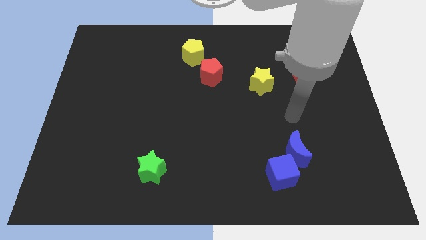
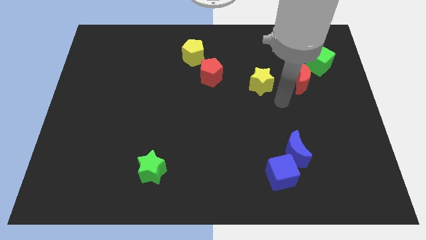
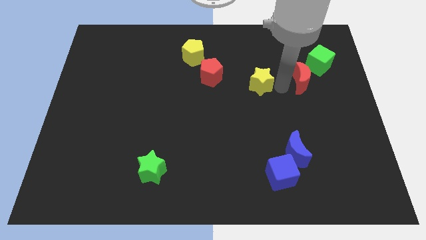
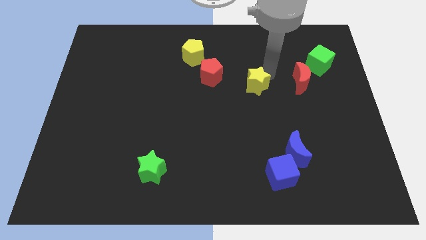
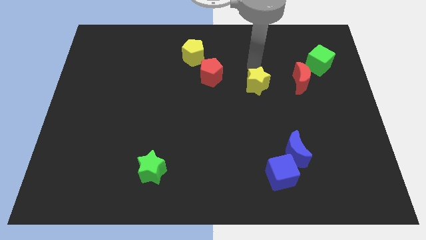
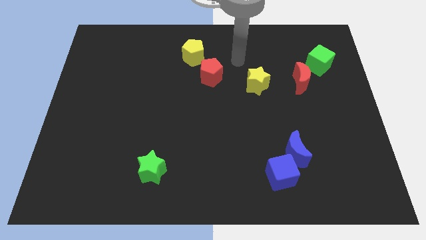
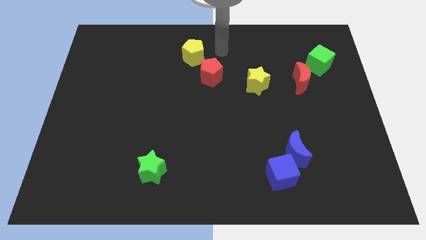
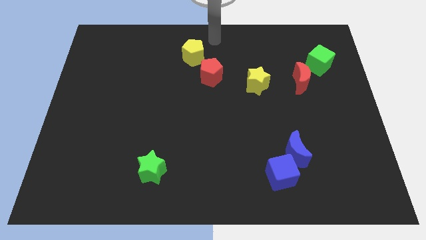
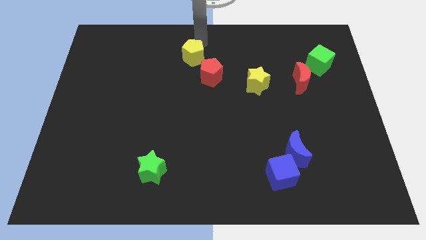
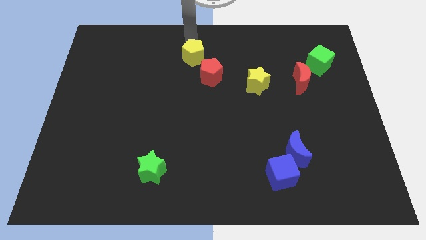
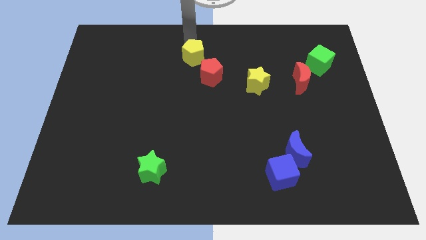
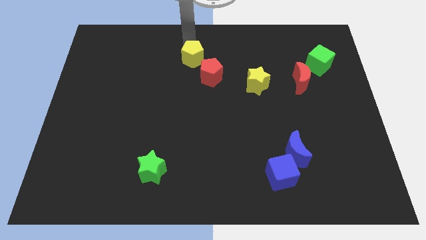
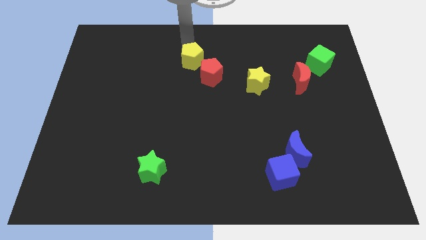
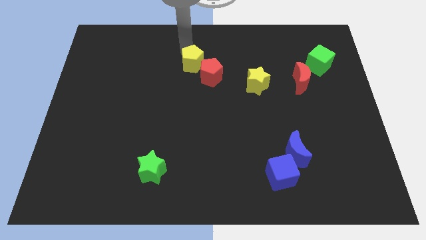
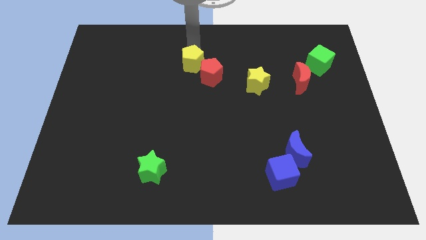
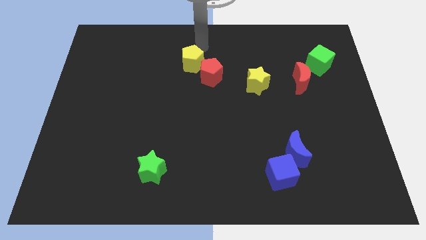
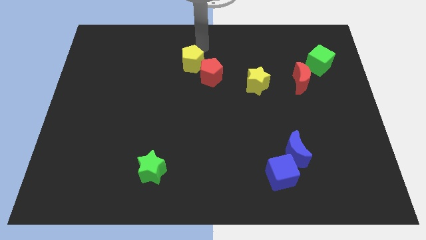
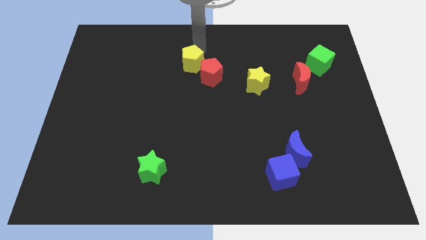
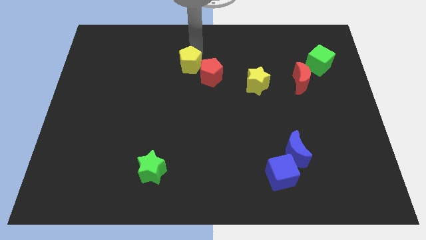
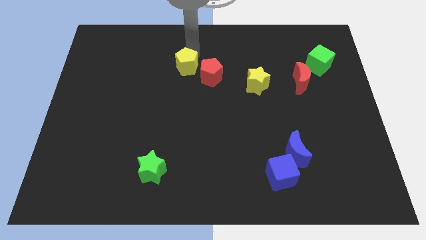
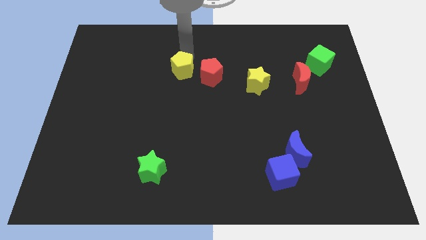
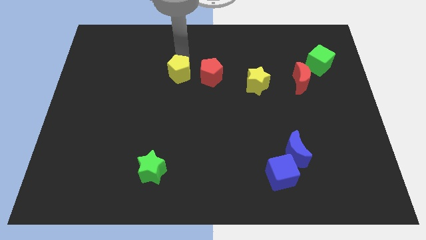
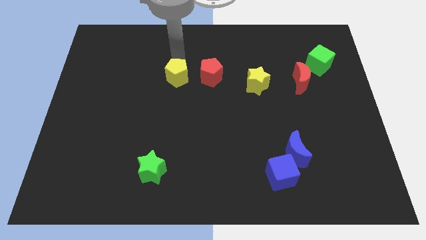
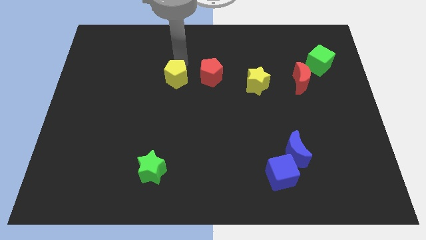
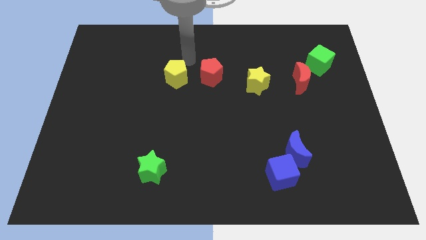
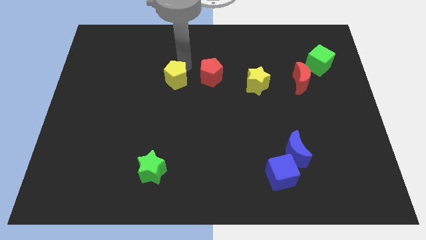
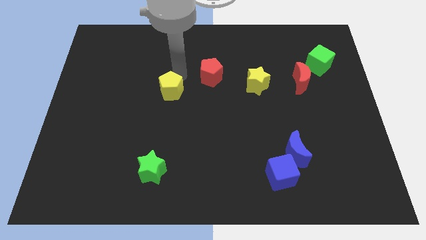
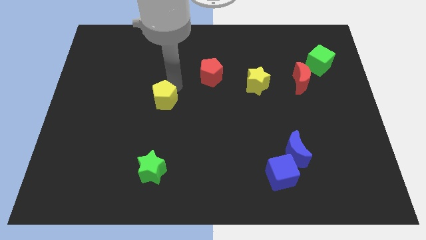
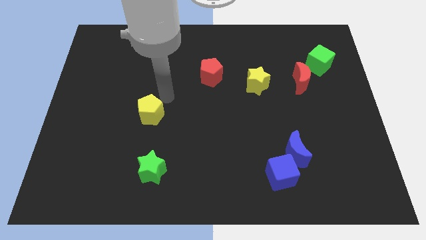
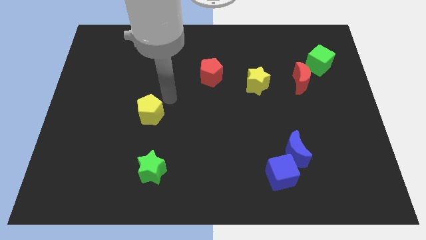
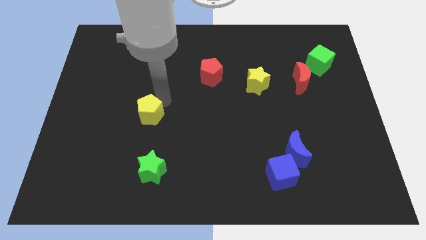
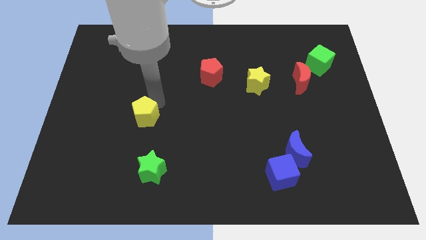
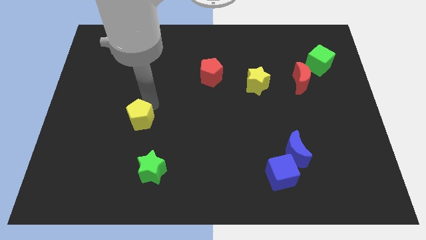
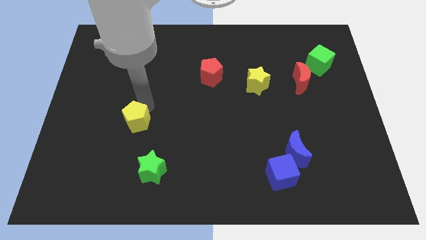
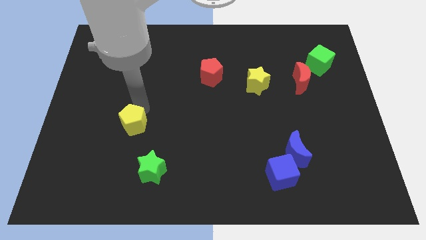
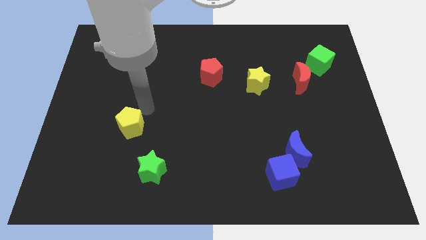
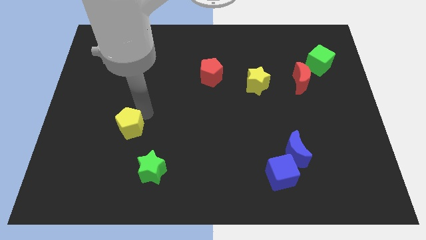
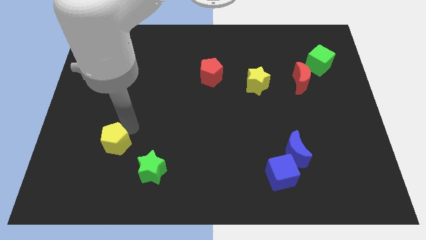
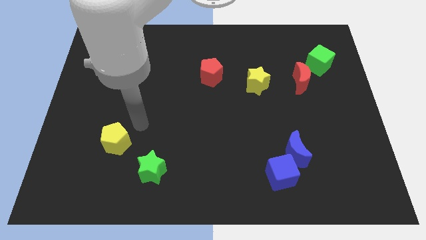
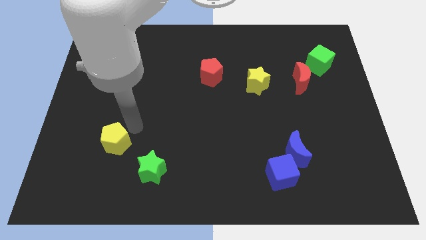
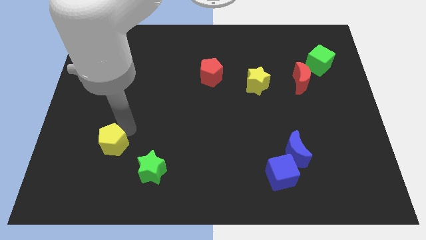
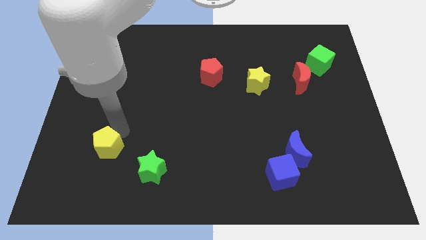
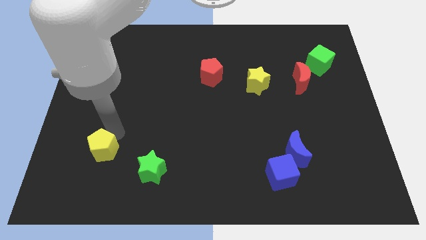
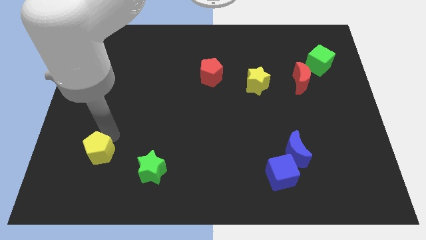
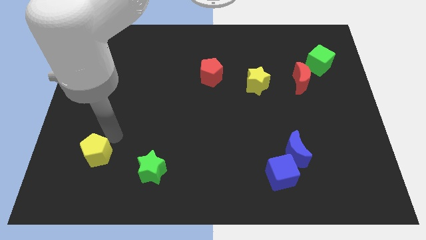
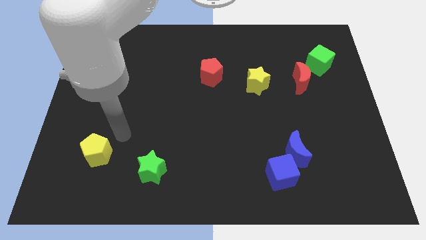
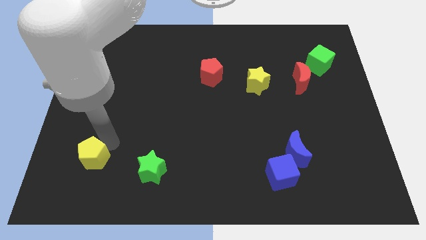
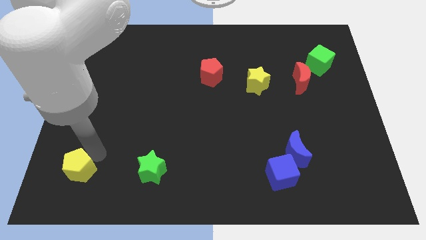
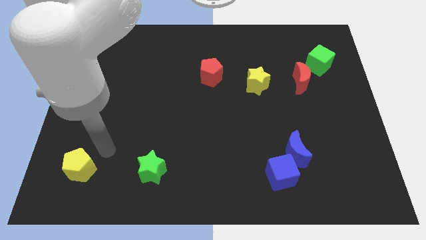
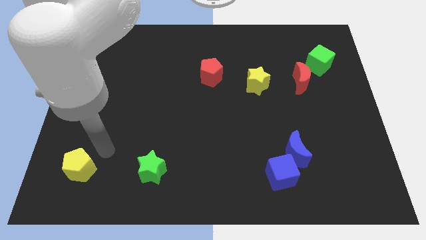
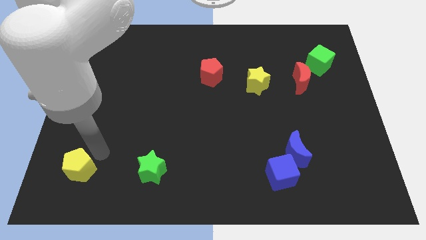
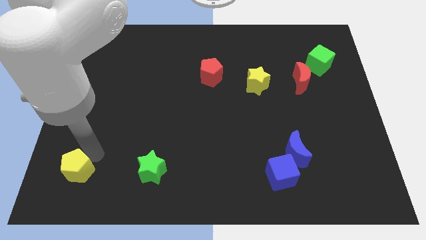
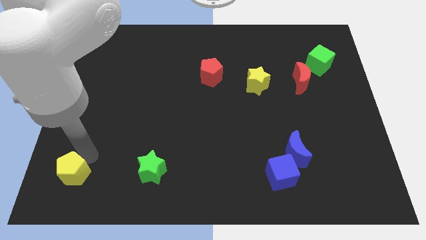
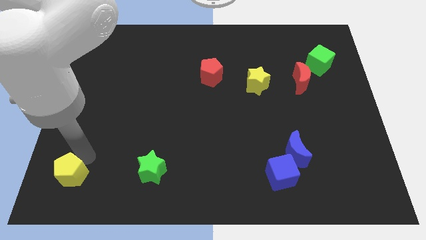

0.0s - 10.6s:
move the yellow pentagon to the bottom left corner

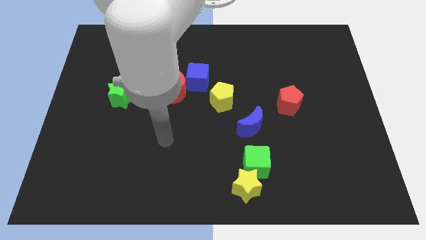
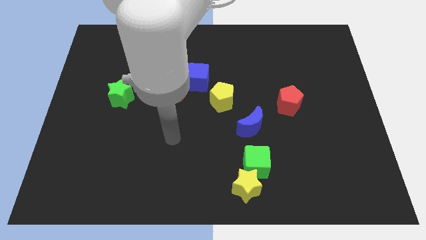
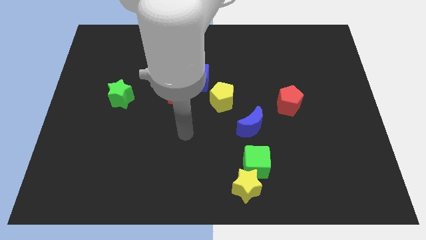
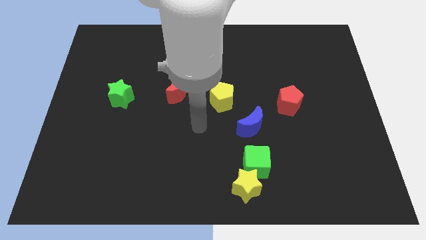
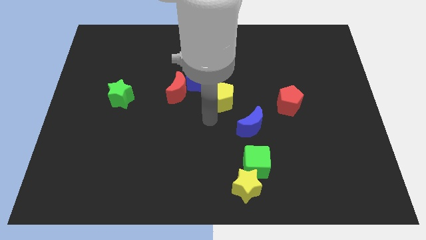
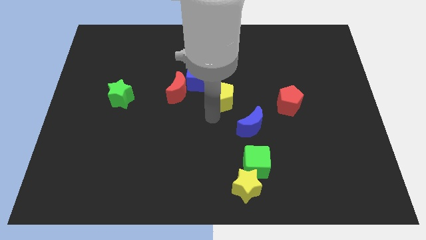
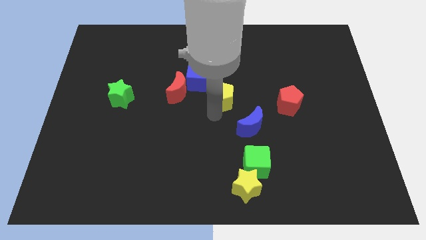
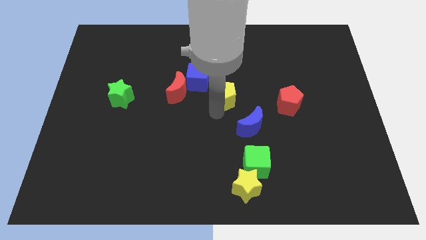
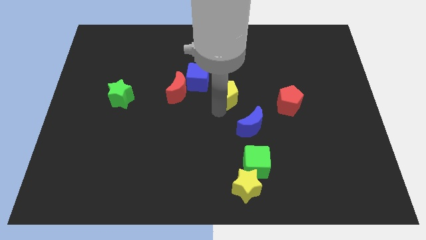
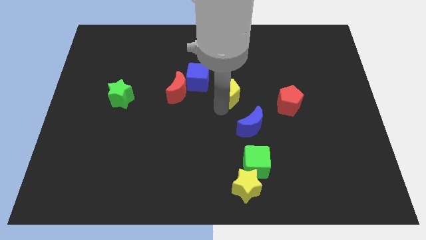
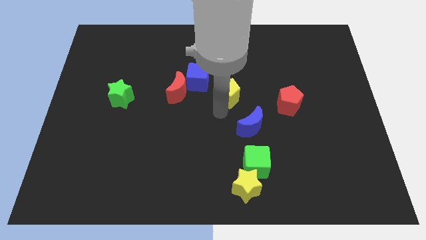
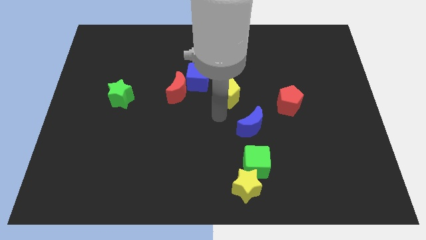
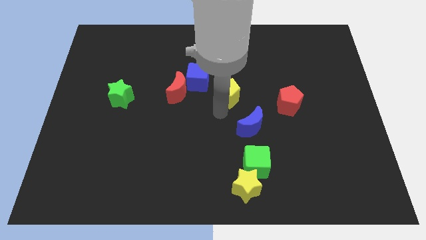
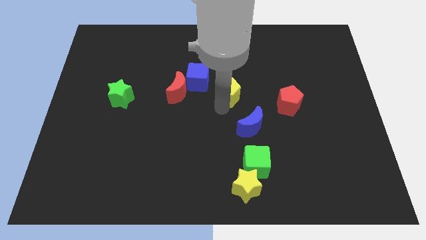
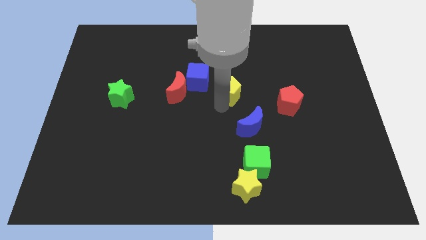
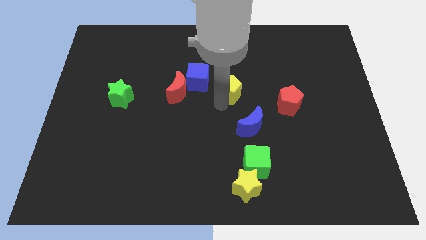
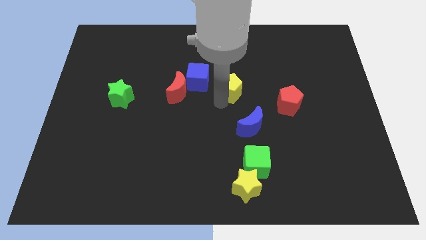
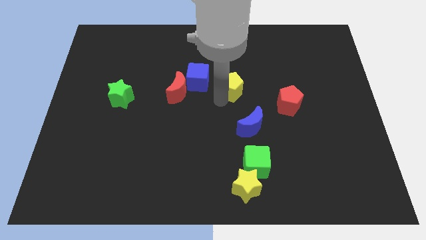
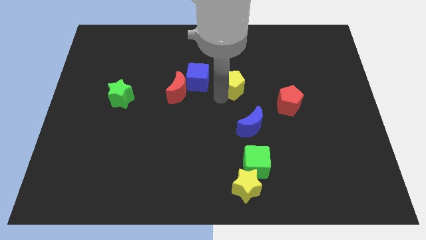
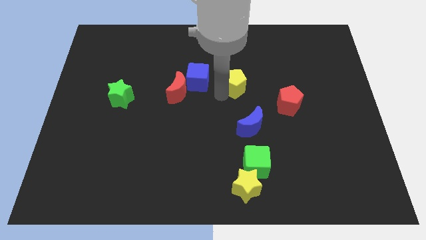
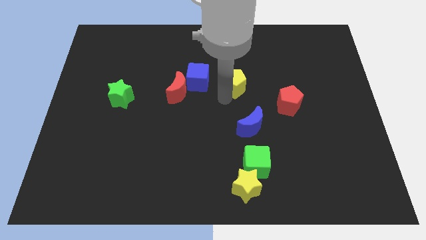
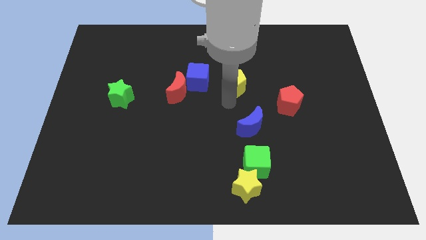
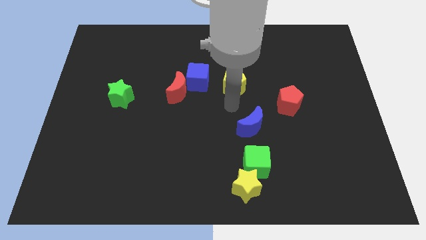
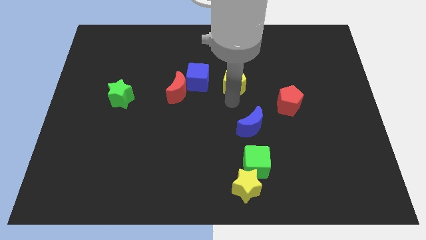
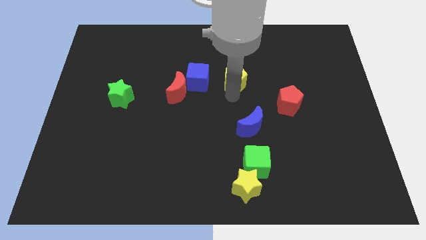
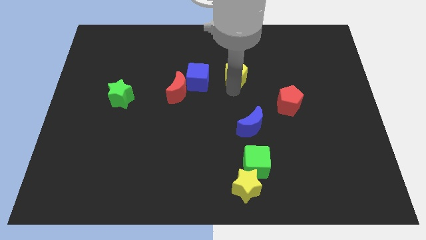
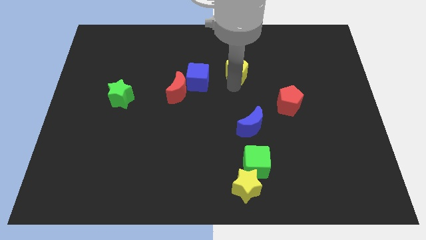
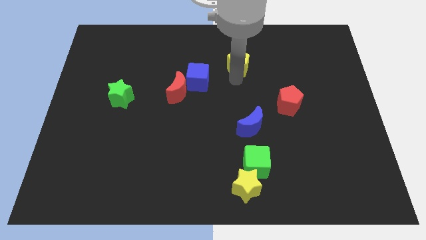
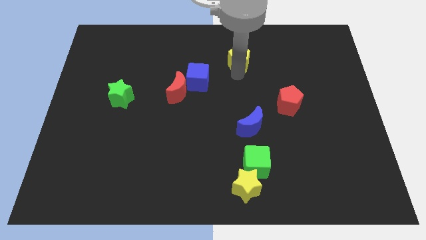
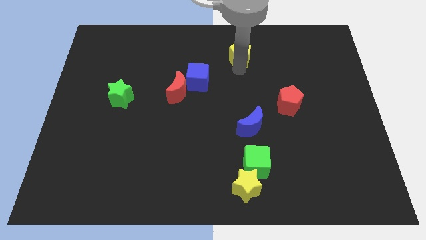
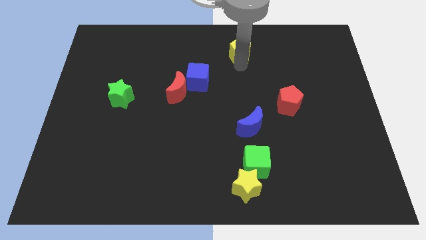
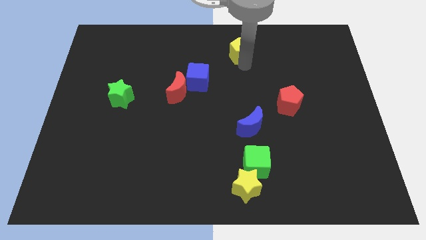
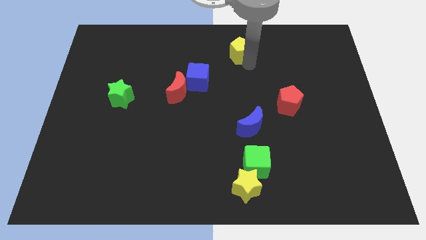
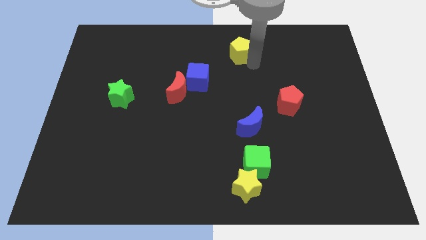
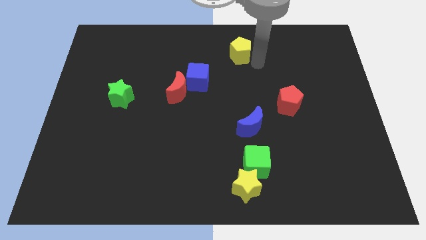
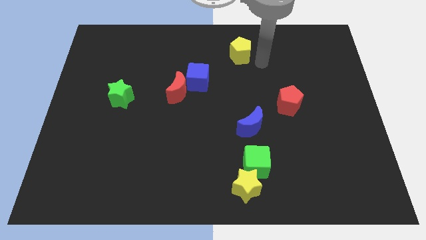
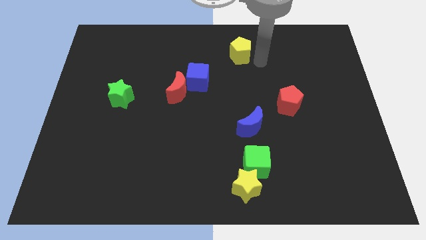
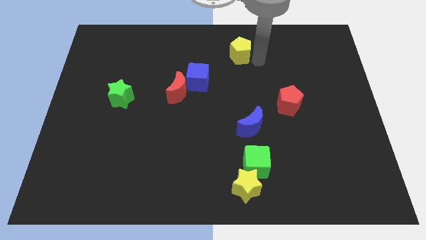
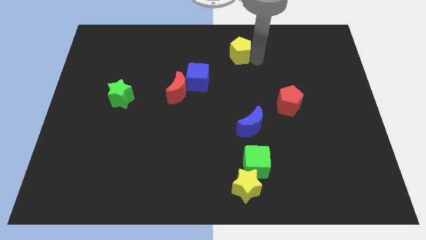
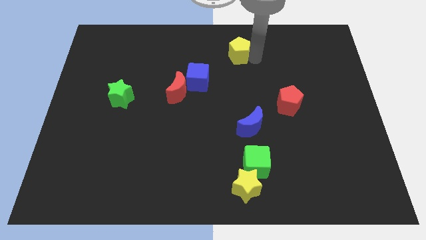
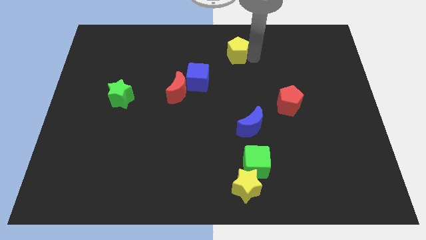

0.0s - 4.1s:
slide the yellow pentagon to the towards your base
